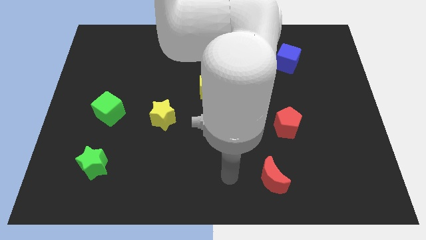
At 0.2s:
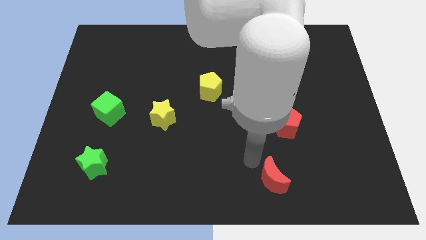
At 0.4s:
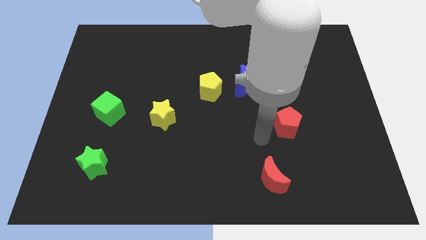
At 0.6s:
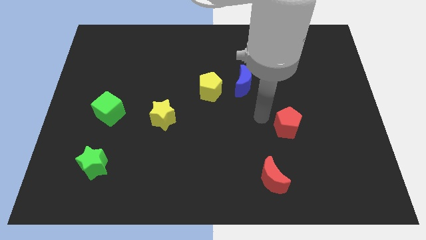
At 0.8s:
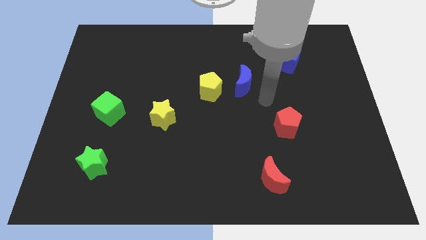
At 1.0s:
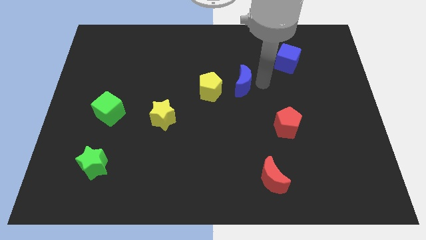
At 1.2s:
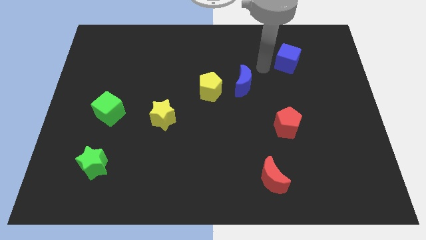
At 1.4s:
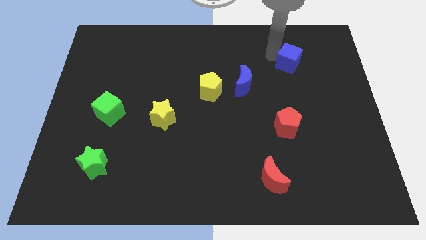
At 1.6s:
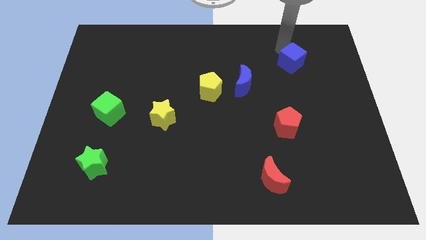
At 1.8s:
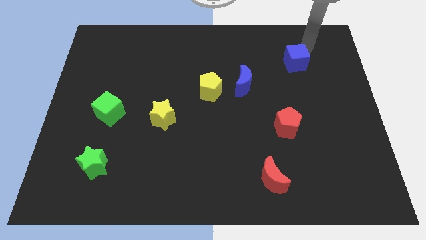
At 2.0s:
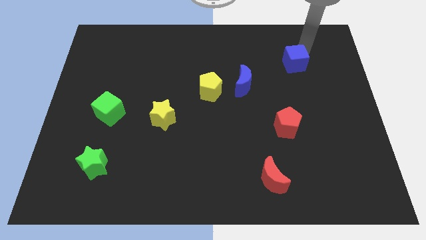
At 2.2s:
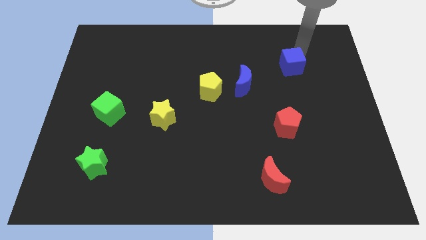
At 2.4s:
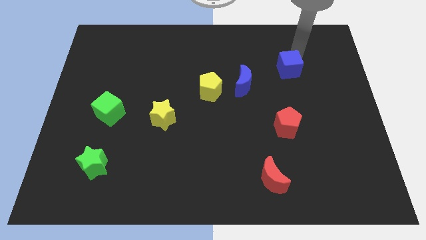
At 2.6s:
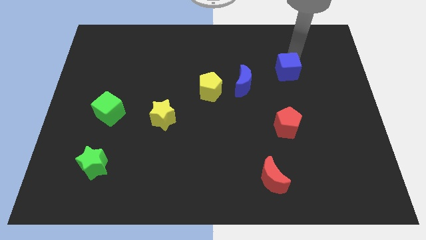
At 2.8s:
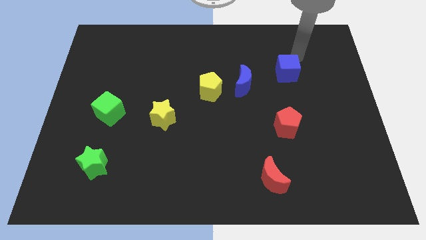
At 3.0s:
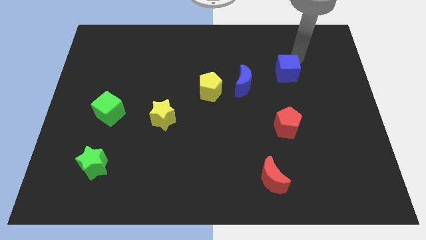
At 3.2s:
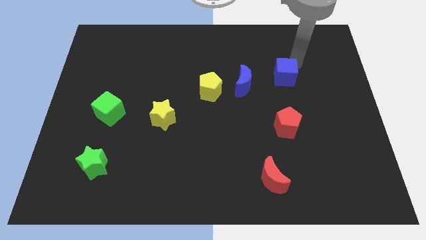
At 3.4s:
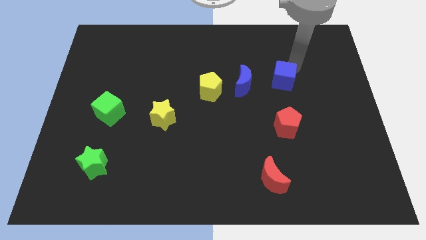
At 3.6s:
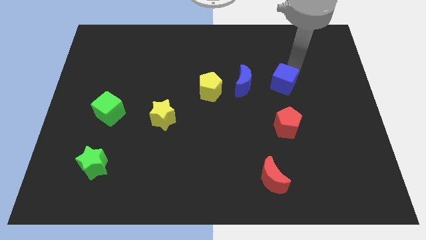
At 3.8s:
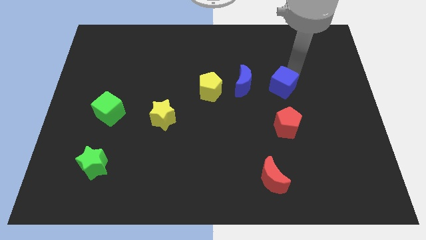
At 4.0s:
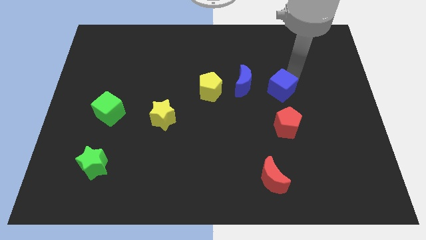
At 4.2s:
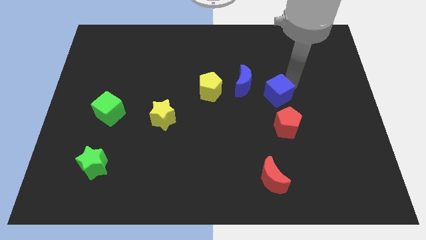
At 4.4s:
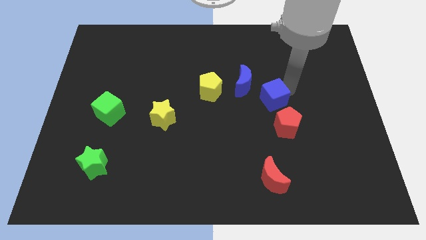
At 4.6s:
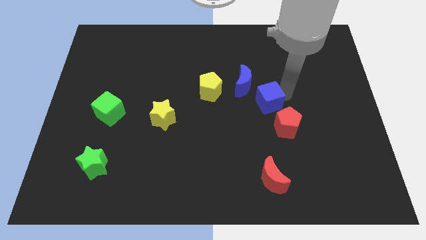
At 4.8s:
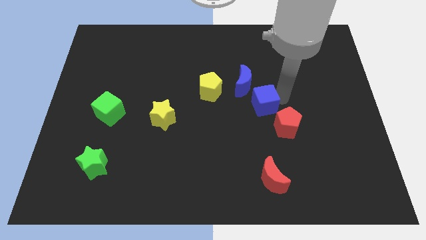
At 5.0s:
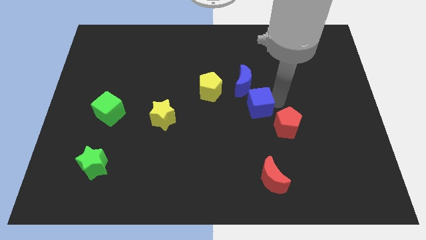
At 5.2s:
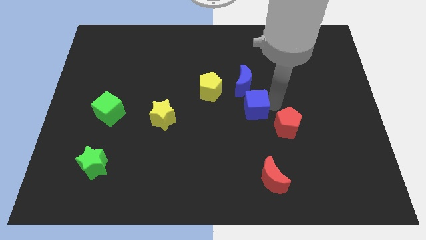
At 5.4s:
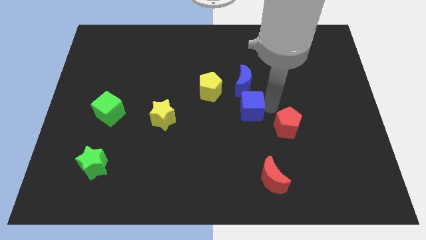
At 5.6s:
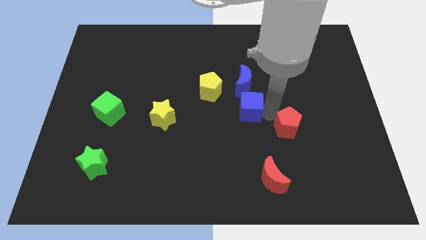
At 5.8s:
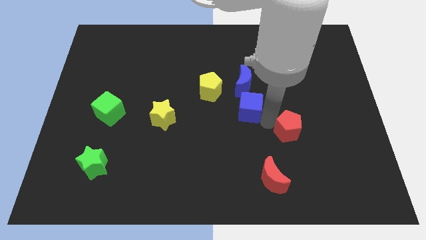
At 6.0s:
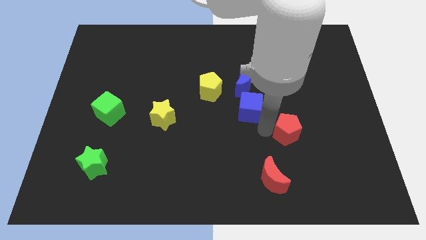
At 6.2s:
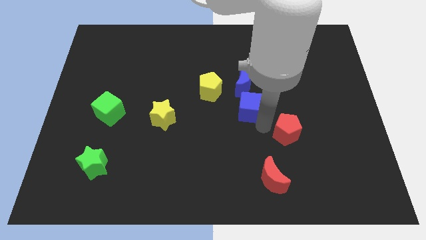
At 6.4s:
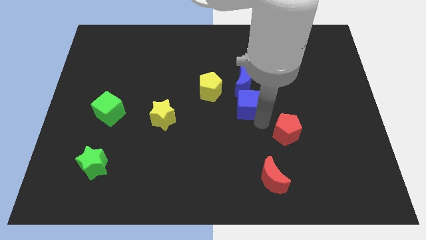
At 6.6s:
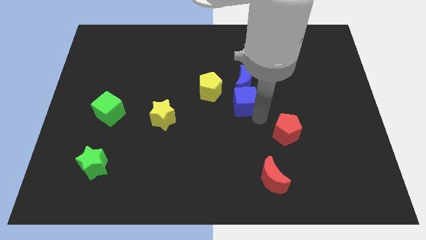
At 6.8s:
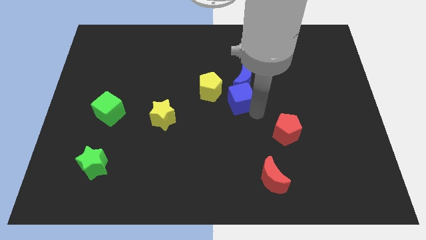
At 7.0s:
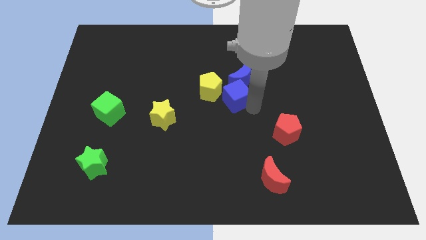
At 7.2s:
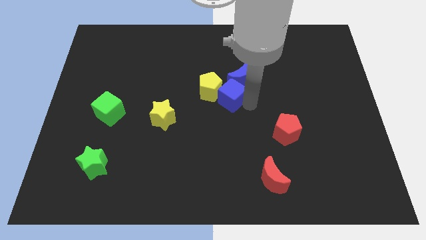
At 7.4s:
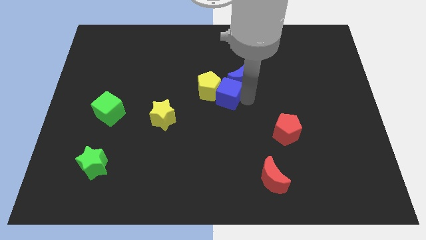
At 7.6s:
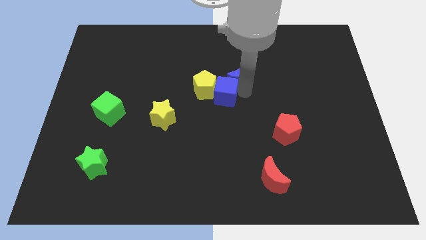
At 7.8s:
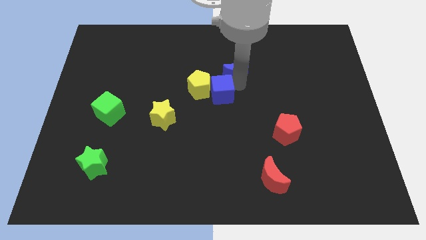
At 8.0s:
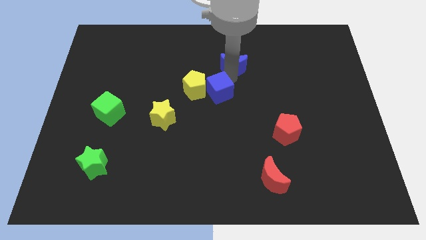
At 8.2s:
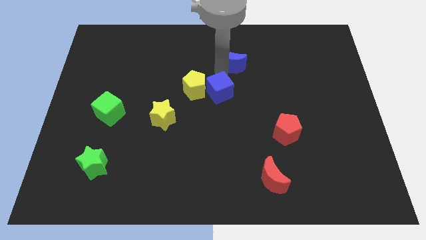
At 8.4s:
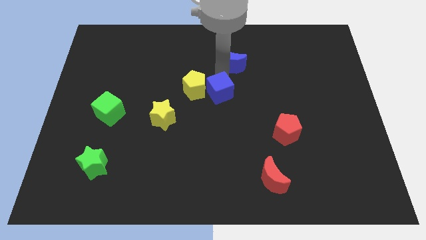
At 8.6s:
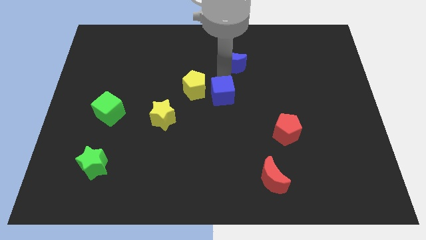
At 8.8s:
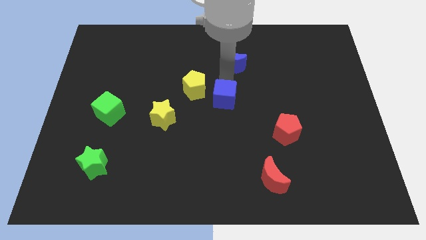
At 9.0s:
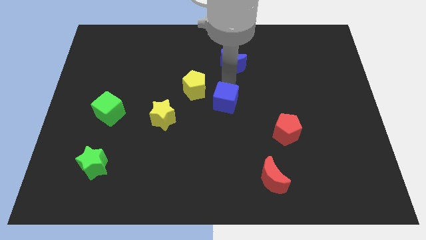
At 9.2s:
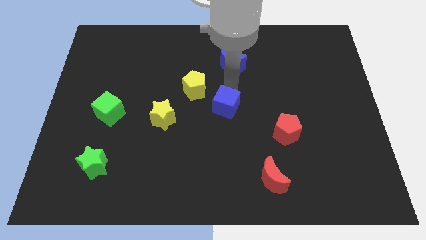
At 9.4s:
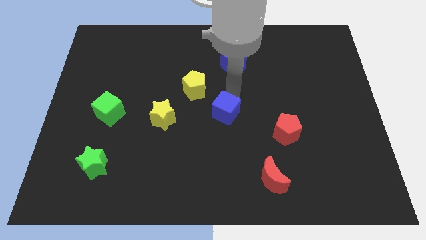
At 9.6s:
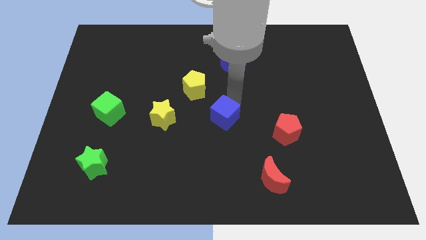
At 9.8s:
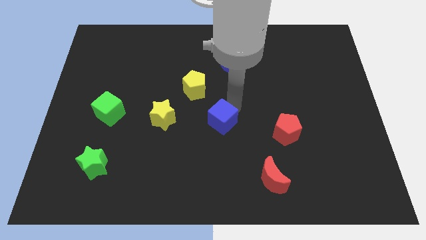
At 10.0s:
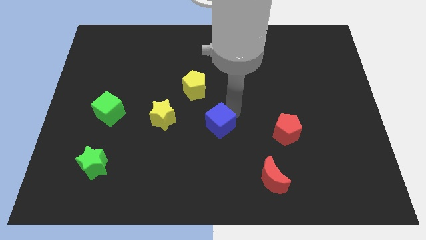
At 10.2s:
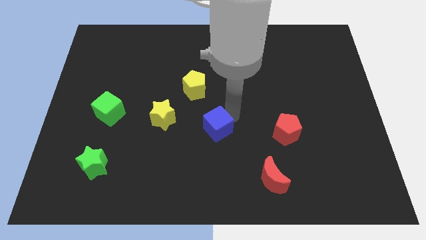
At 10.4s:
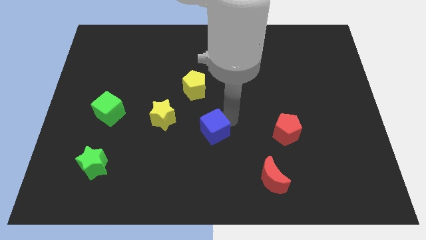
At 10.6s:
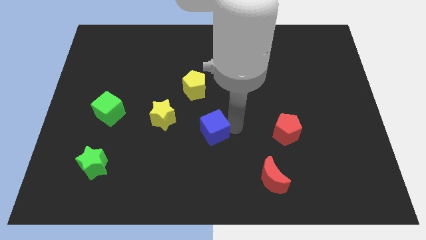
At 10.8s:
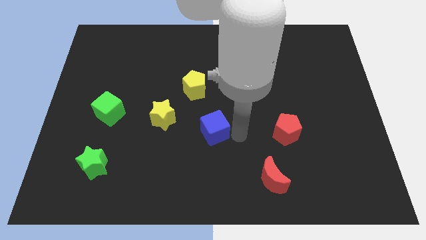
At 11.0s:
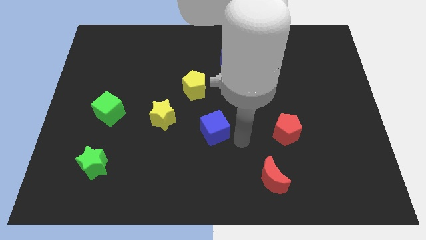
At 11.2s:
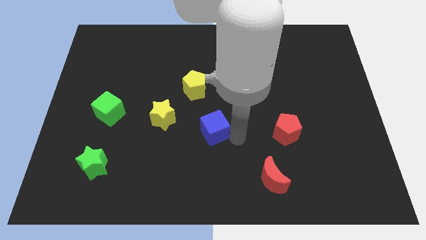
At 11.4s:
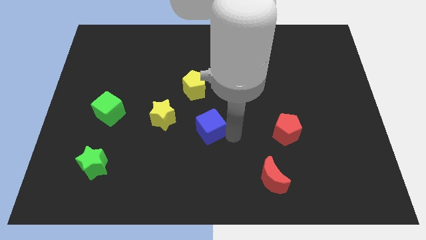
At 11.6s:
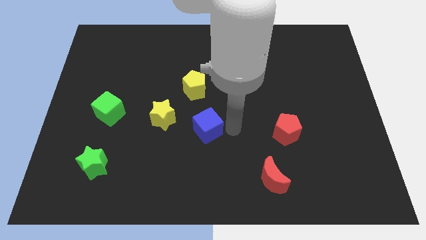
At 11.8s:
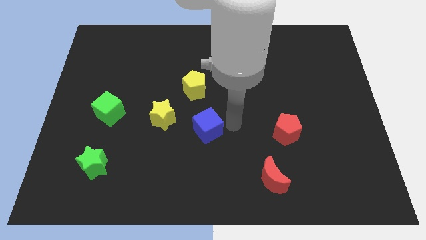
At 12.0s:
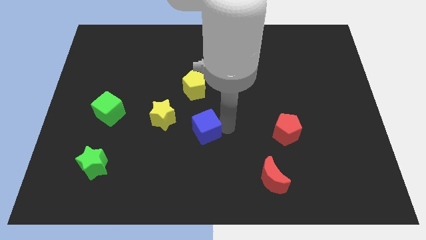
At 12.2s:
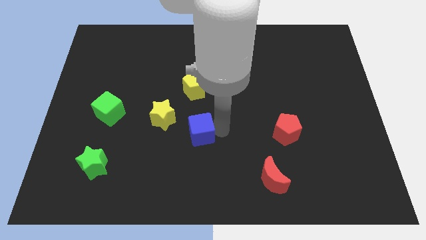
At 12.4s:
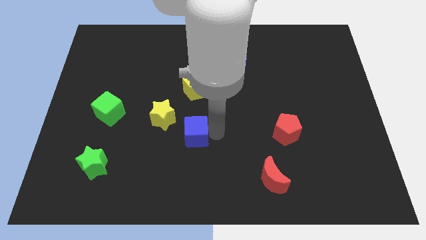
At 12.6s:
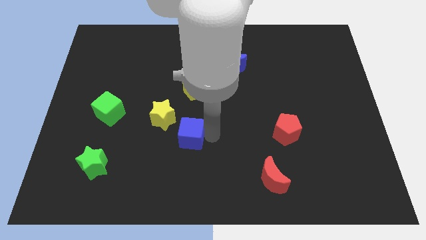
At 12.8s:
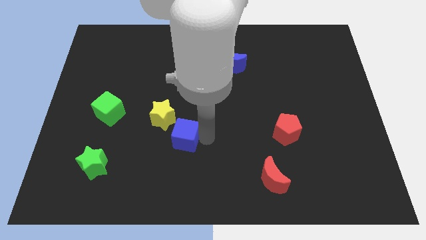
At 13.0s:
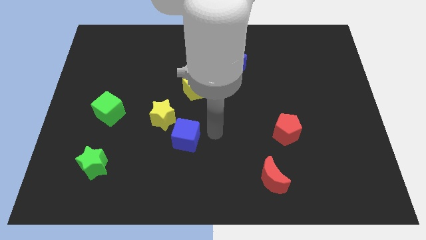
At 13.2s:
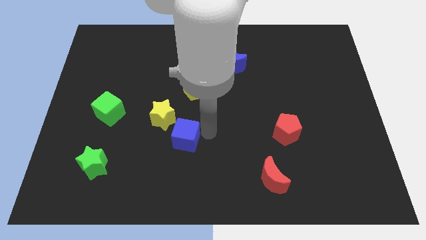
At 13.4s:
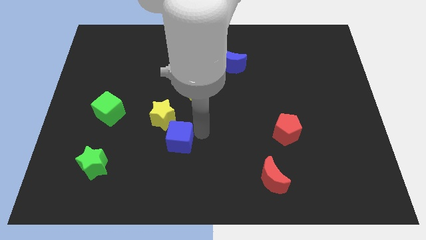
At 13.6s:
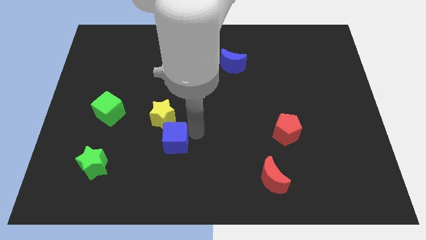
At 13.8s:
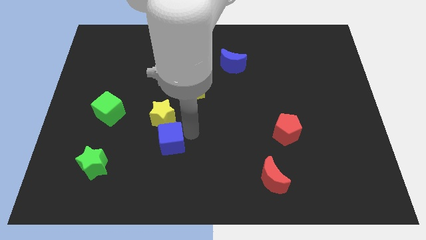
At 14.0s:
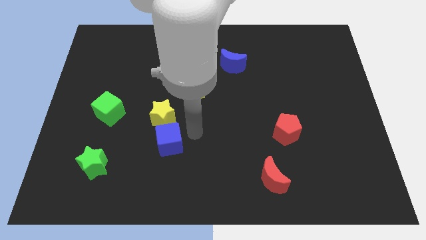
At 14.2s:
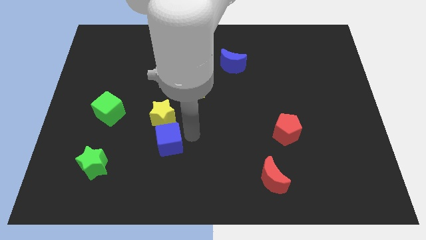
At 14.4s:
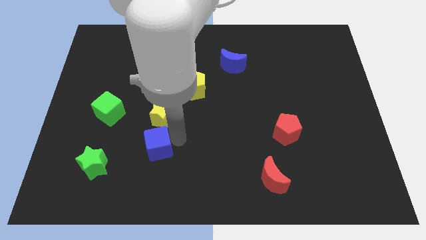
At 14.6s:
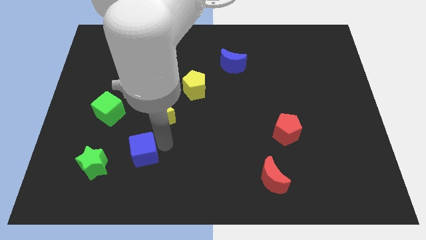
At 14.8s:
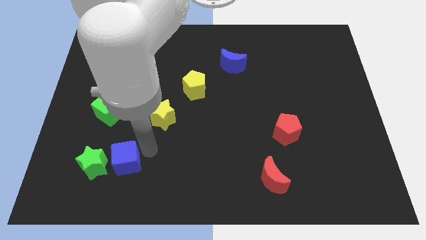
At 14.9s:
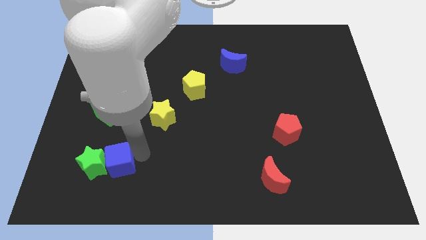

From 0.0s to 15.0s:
push the blue cube next to the green star
